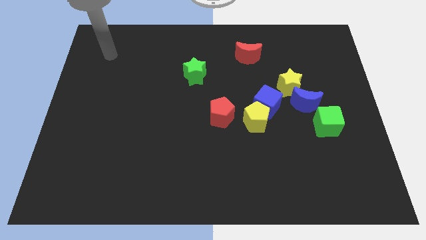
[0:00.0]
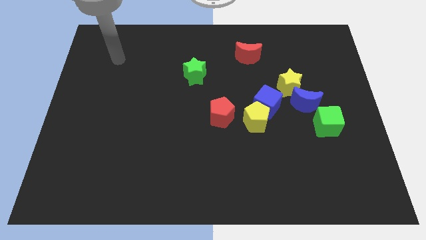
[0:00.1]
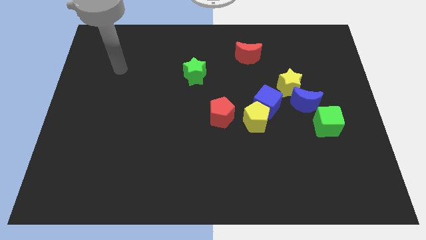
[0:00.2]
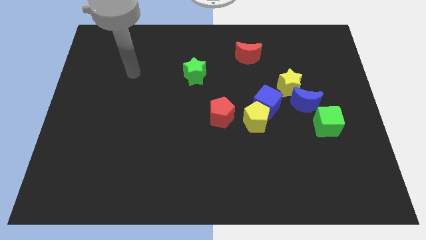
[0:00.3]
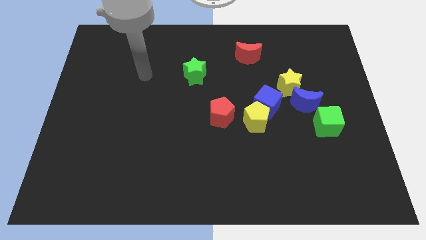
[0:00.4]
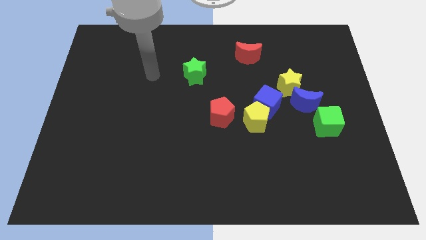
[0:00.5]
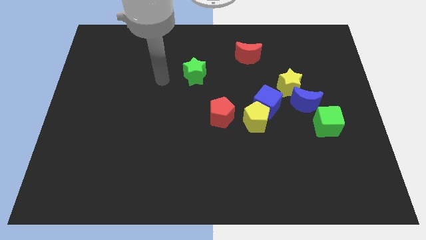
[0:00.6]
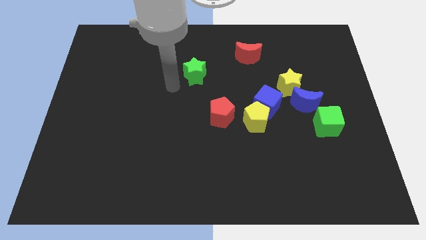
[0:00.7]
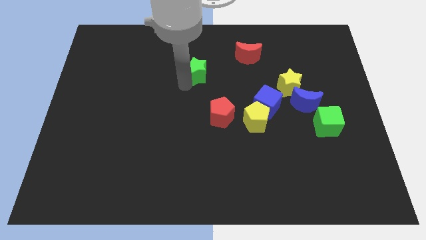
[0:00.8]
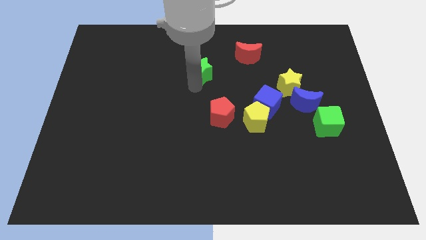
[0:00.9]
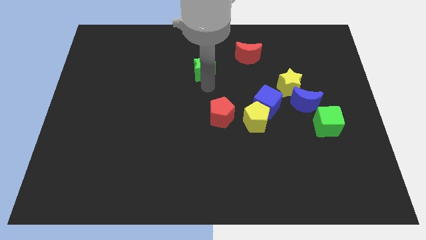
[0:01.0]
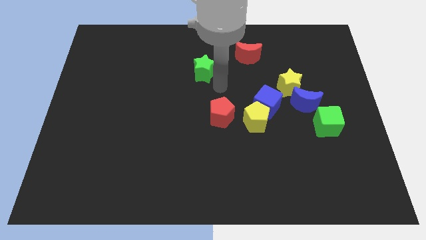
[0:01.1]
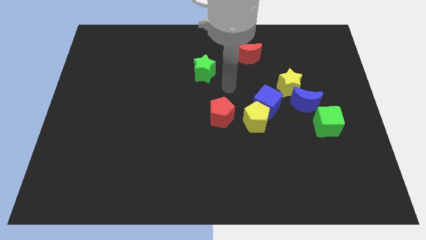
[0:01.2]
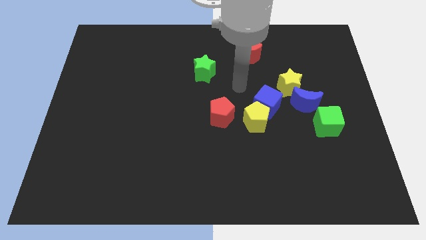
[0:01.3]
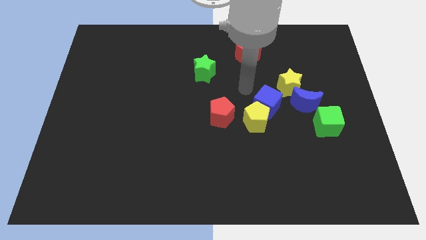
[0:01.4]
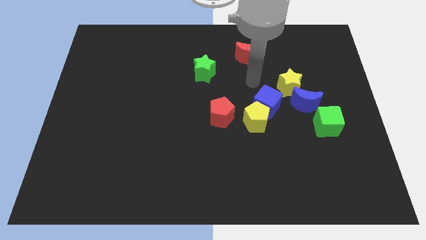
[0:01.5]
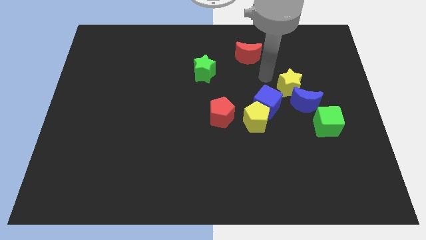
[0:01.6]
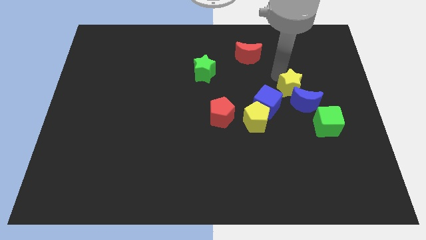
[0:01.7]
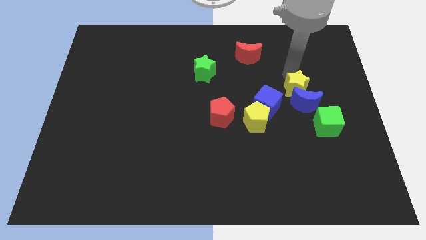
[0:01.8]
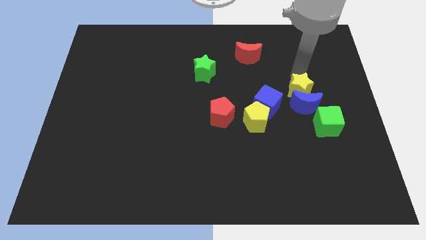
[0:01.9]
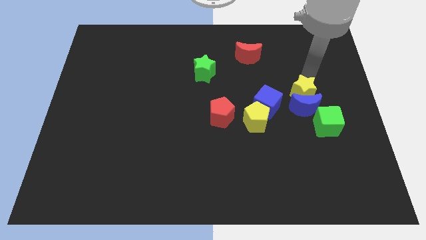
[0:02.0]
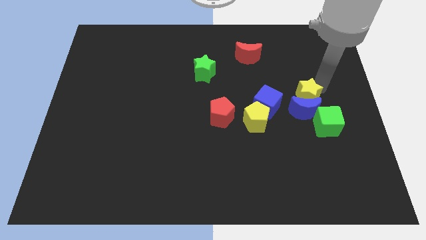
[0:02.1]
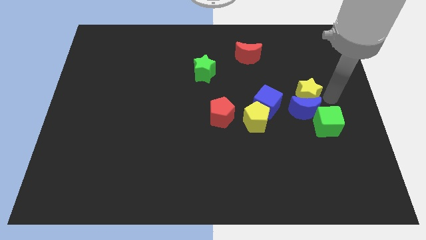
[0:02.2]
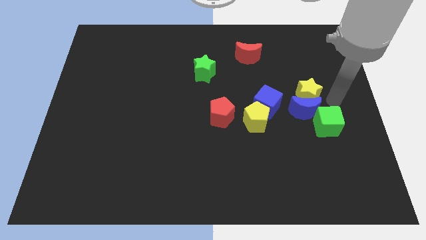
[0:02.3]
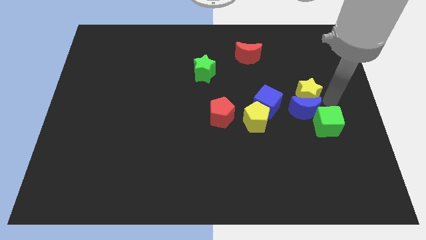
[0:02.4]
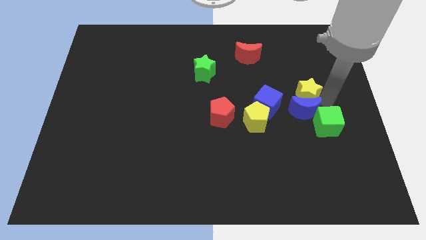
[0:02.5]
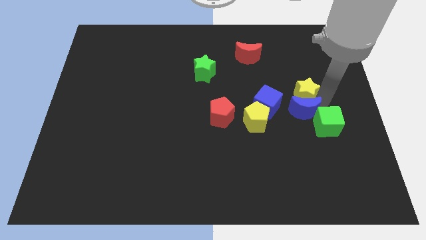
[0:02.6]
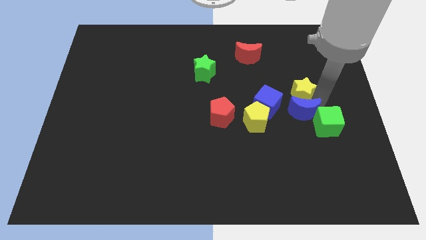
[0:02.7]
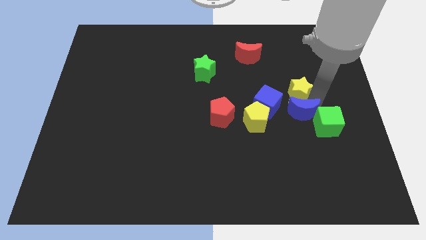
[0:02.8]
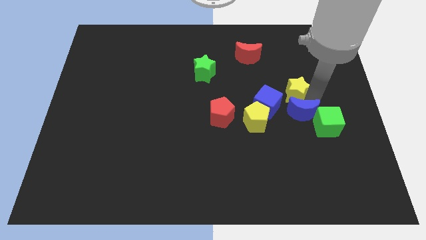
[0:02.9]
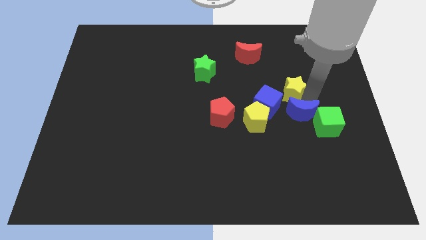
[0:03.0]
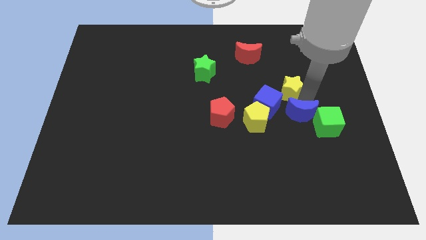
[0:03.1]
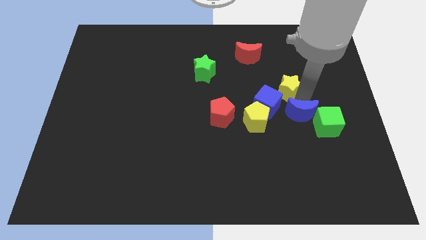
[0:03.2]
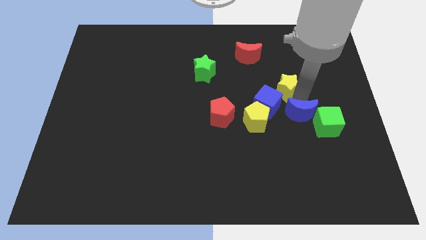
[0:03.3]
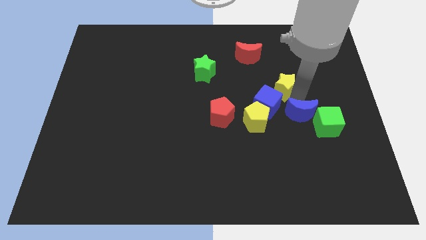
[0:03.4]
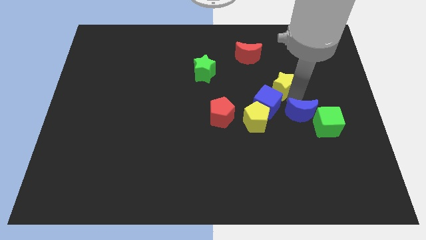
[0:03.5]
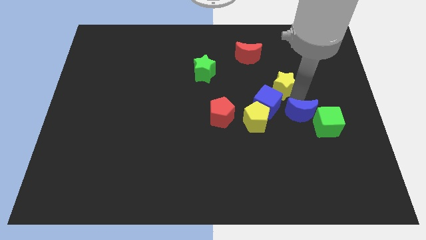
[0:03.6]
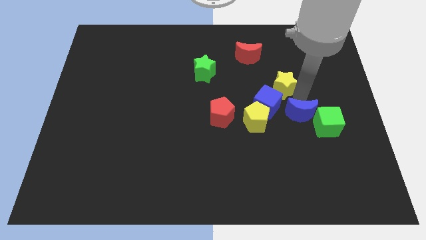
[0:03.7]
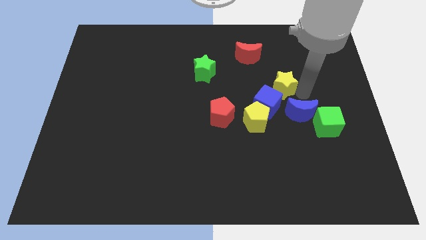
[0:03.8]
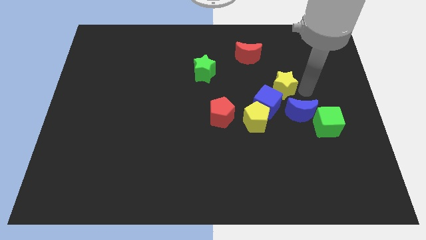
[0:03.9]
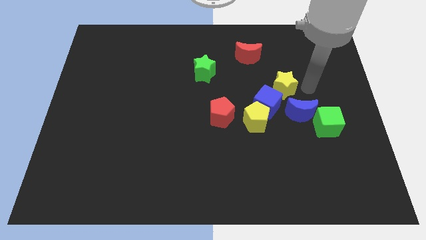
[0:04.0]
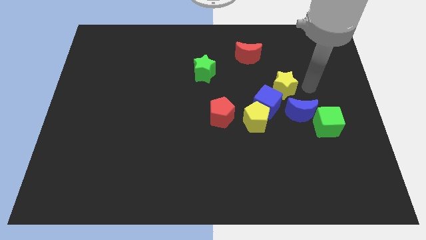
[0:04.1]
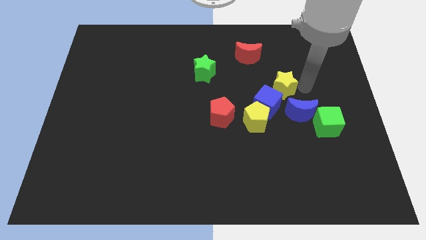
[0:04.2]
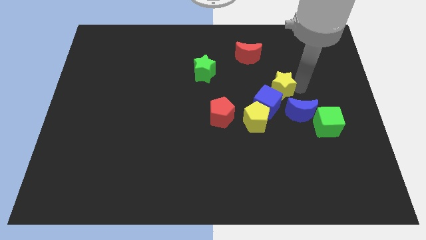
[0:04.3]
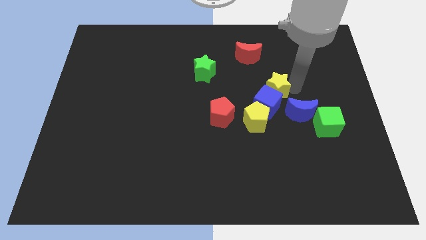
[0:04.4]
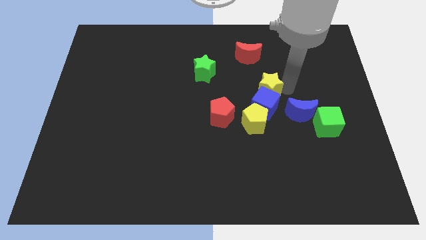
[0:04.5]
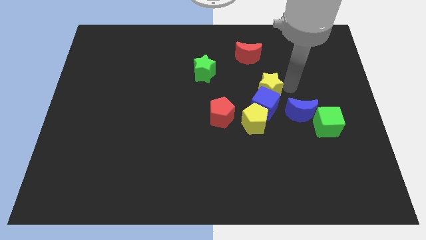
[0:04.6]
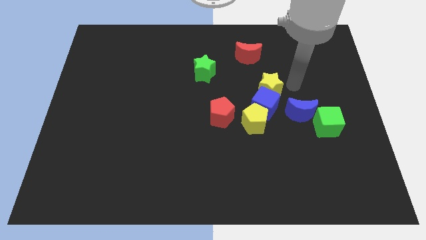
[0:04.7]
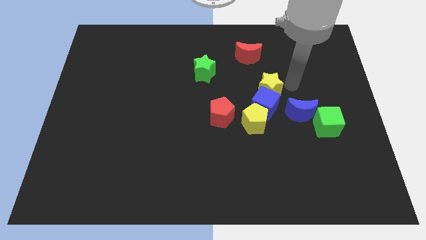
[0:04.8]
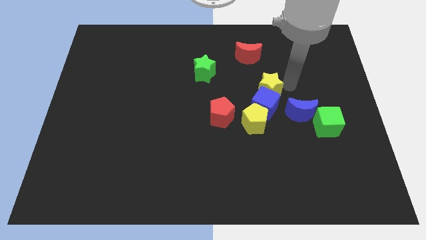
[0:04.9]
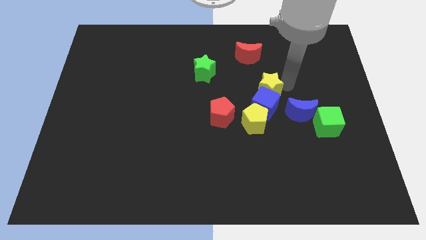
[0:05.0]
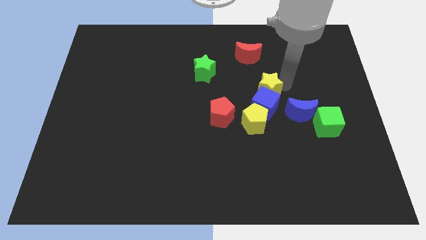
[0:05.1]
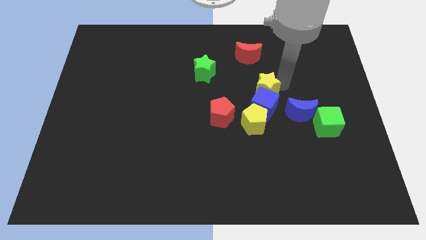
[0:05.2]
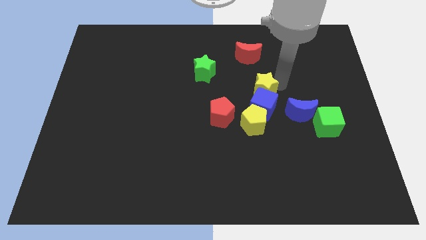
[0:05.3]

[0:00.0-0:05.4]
slide the yellow star to the center of the board

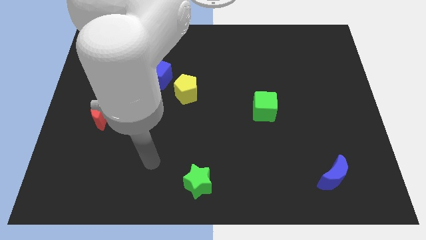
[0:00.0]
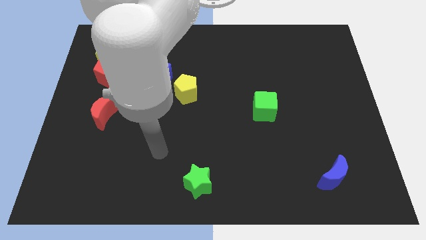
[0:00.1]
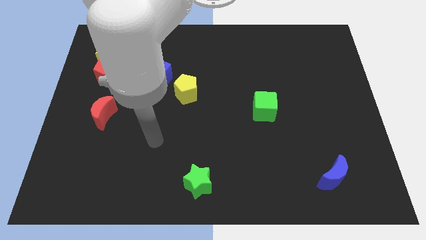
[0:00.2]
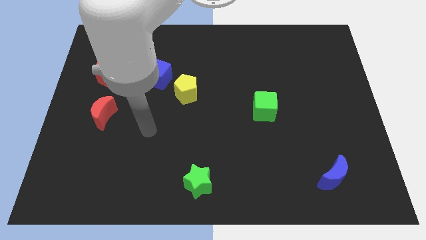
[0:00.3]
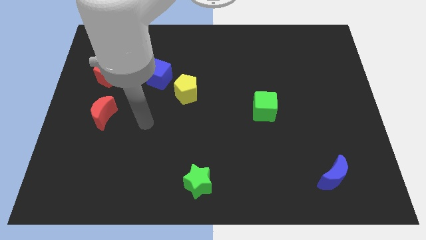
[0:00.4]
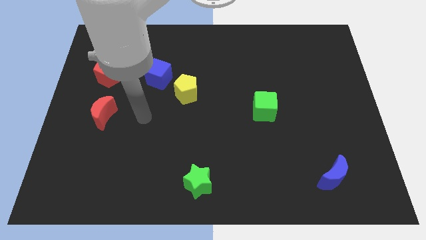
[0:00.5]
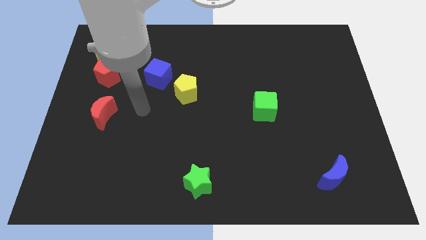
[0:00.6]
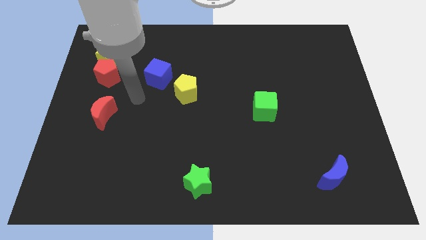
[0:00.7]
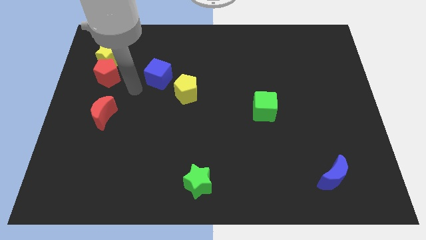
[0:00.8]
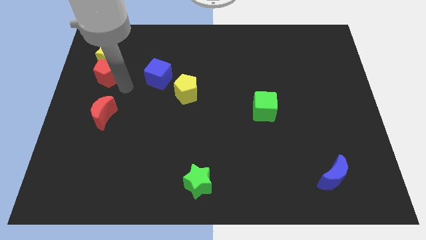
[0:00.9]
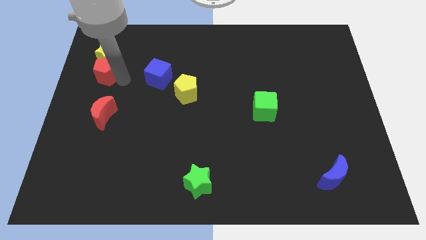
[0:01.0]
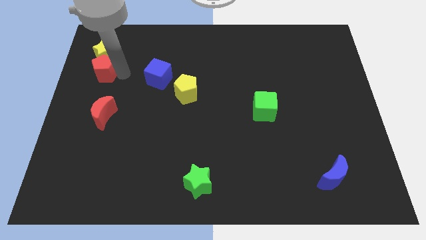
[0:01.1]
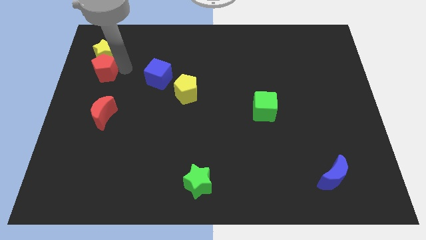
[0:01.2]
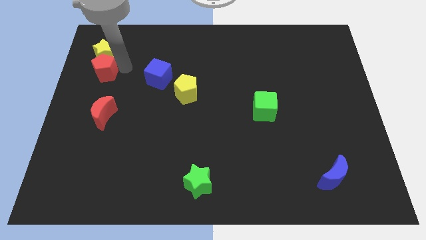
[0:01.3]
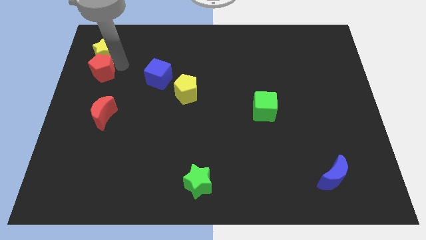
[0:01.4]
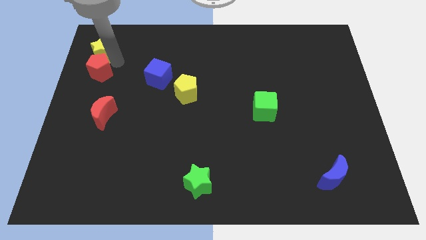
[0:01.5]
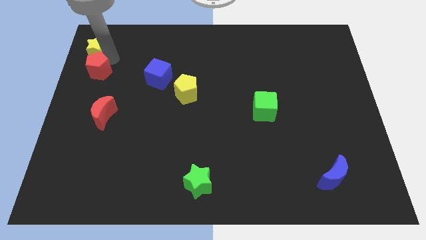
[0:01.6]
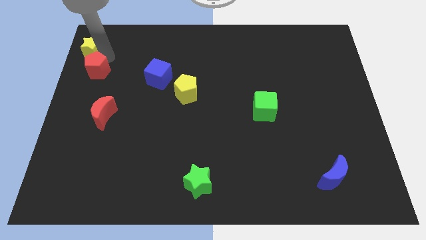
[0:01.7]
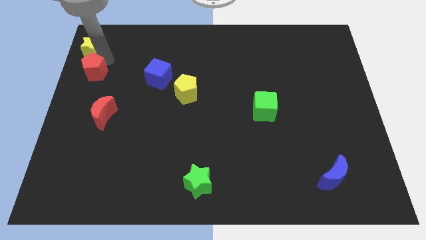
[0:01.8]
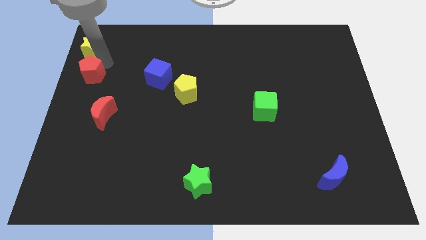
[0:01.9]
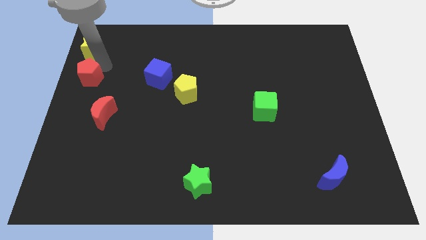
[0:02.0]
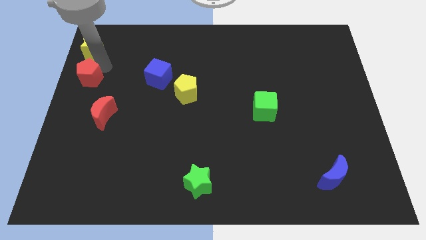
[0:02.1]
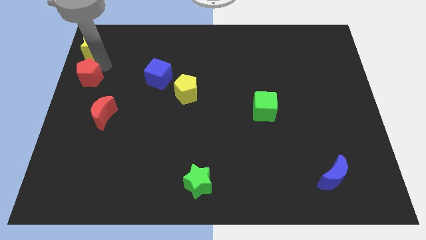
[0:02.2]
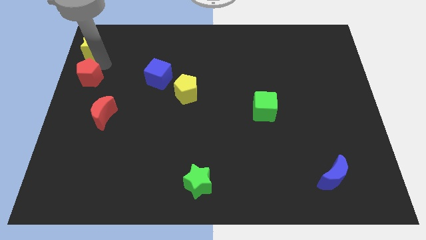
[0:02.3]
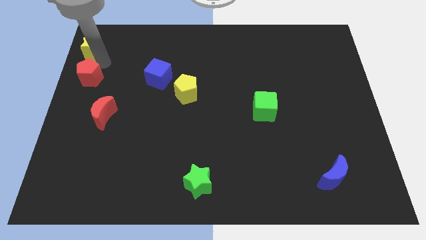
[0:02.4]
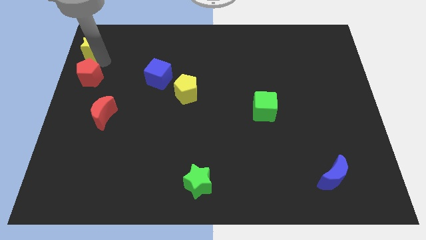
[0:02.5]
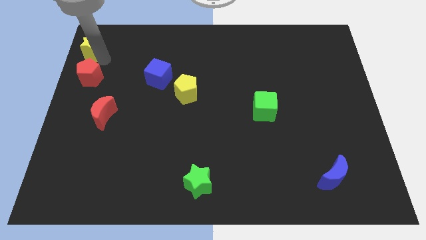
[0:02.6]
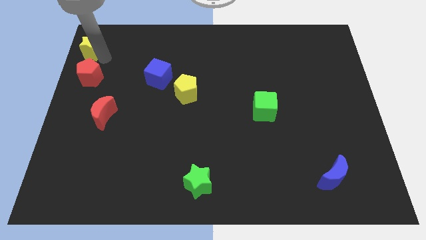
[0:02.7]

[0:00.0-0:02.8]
put the yellow star to the top left corner
